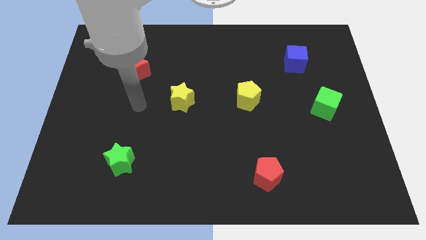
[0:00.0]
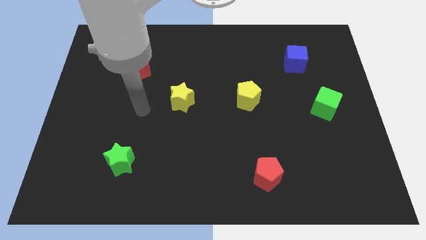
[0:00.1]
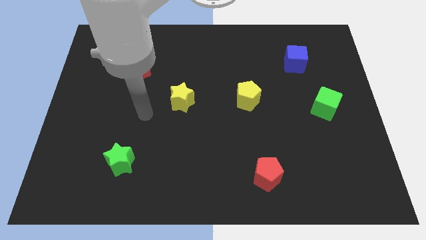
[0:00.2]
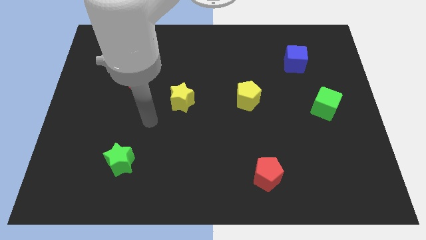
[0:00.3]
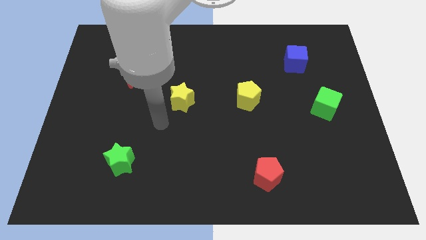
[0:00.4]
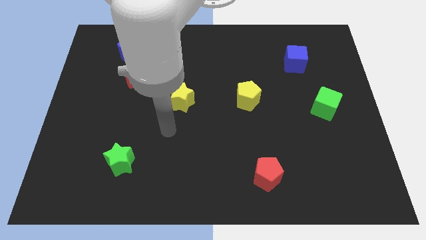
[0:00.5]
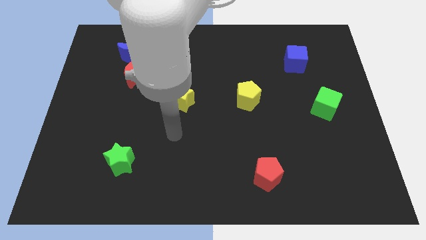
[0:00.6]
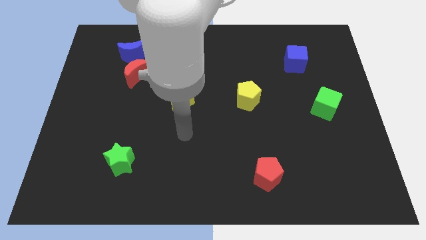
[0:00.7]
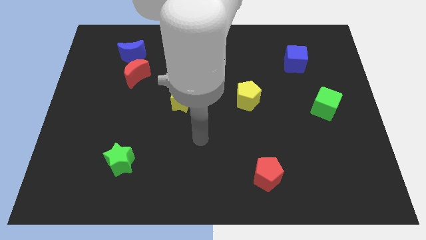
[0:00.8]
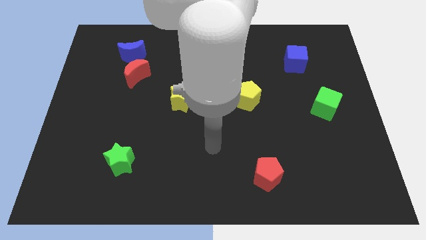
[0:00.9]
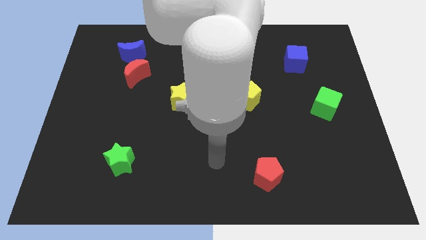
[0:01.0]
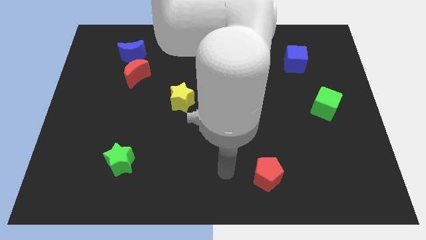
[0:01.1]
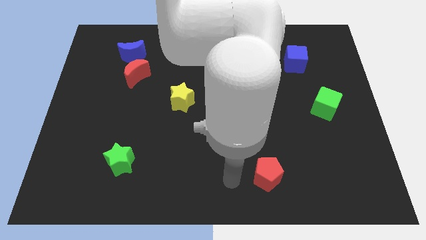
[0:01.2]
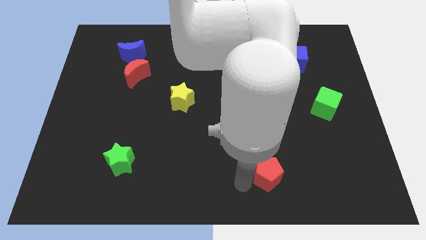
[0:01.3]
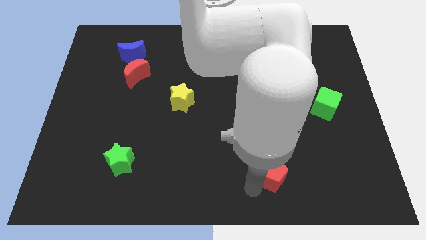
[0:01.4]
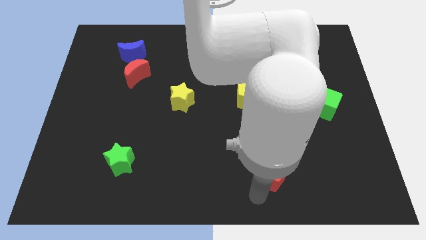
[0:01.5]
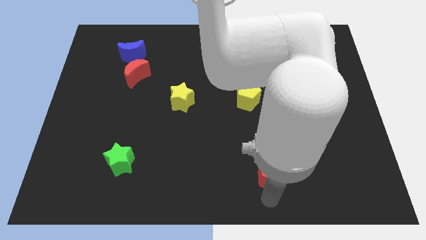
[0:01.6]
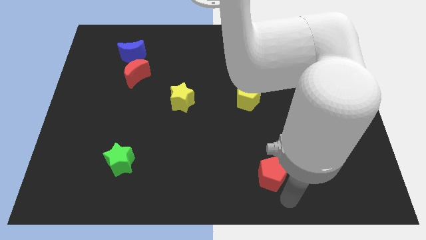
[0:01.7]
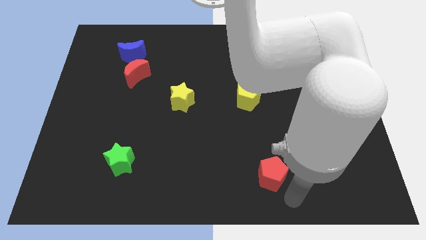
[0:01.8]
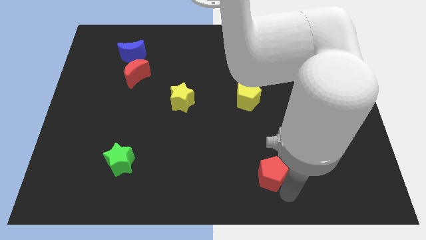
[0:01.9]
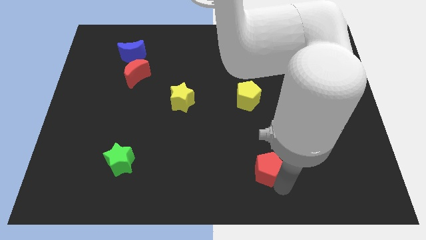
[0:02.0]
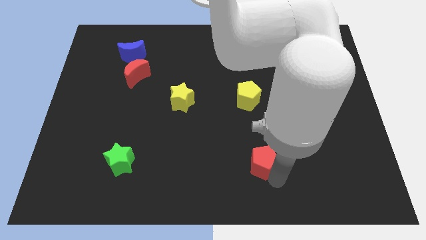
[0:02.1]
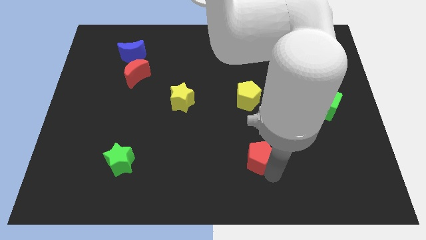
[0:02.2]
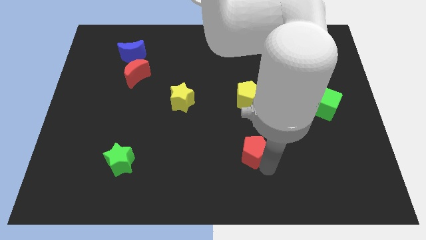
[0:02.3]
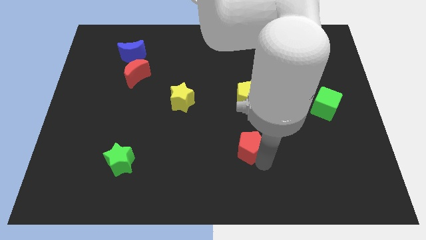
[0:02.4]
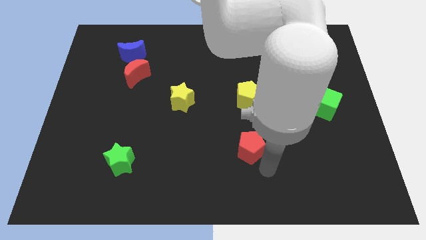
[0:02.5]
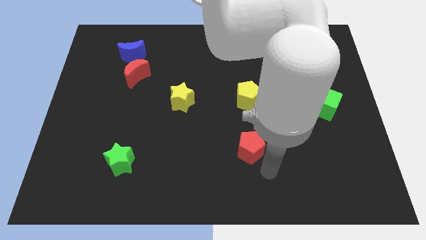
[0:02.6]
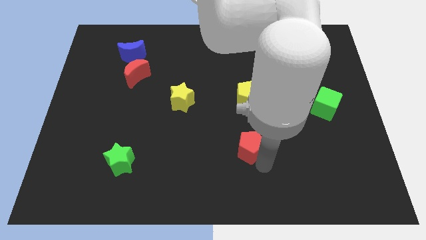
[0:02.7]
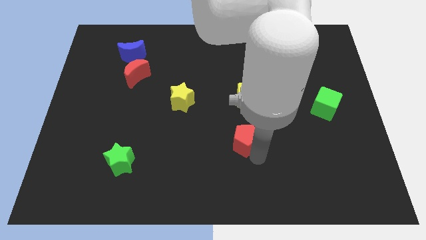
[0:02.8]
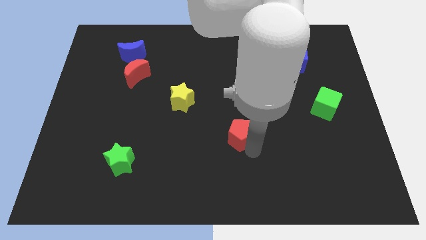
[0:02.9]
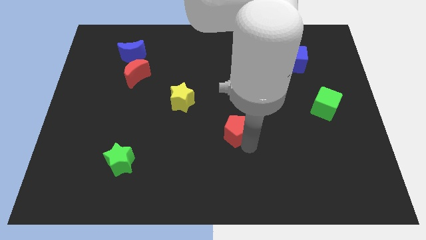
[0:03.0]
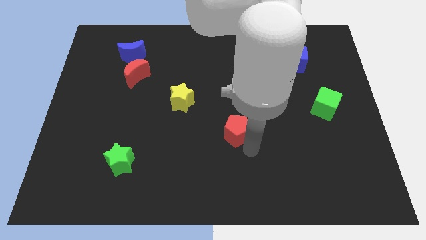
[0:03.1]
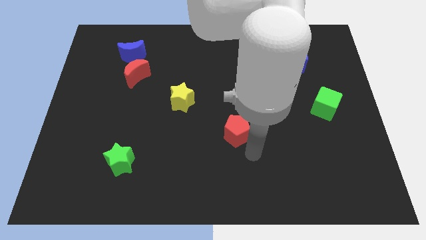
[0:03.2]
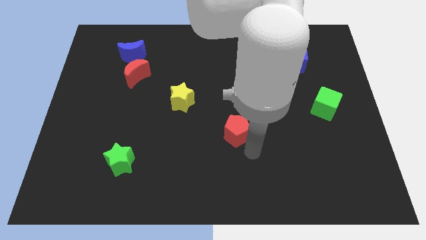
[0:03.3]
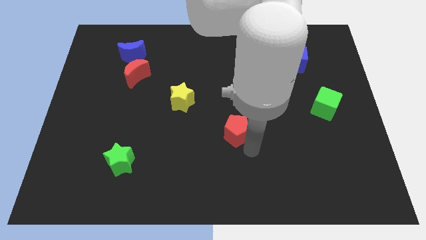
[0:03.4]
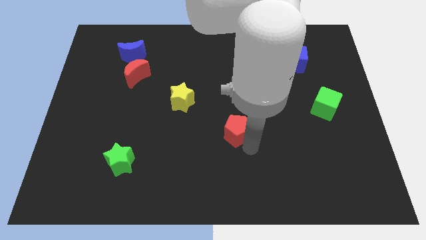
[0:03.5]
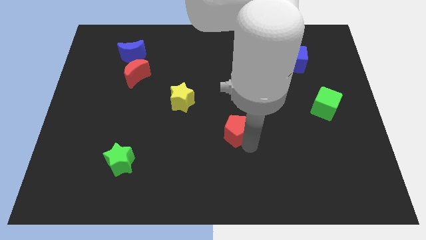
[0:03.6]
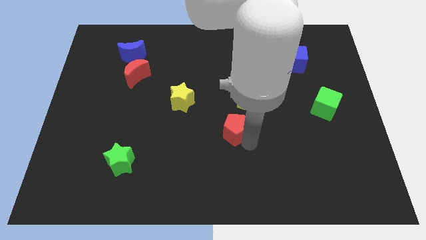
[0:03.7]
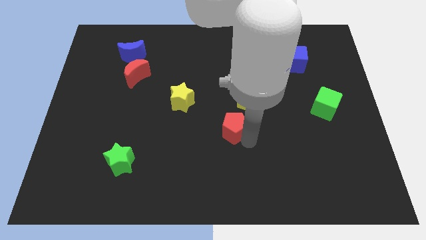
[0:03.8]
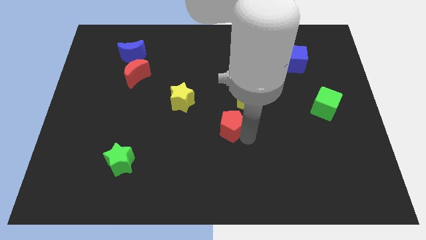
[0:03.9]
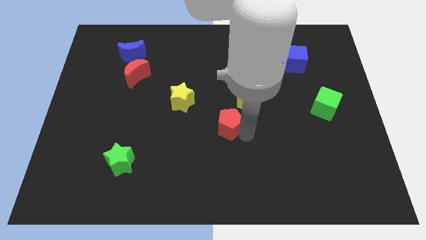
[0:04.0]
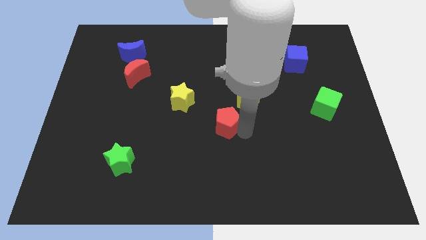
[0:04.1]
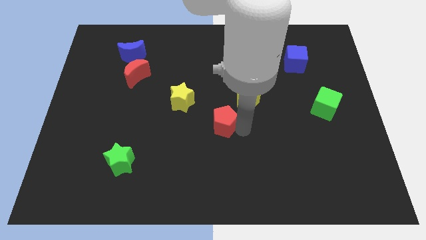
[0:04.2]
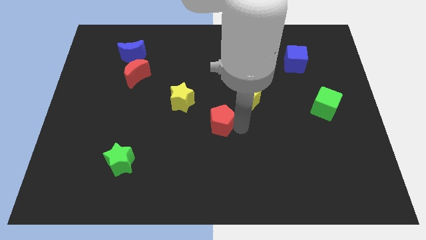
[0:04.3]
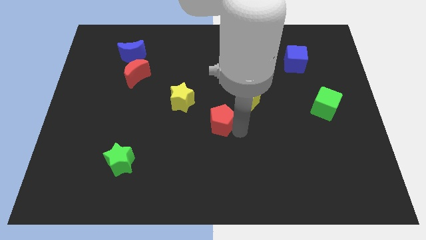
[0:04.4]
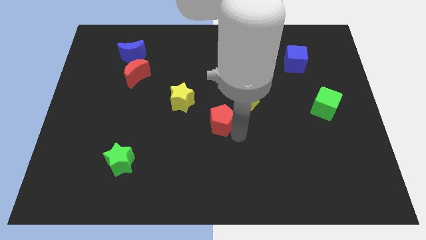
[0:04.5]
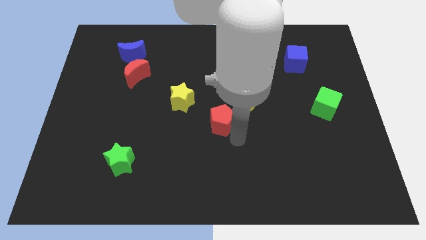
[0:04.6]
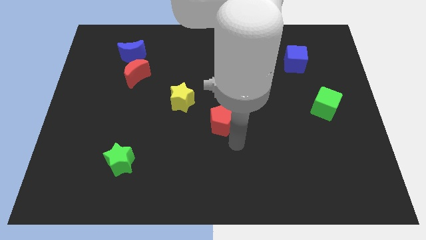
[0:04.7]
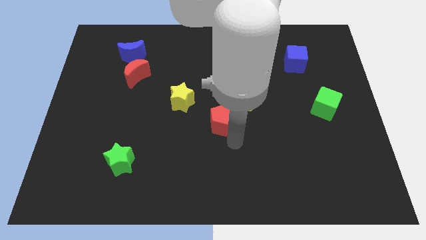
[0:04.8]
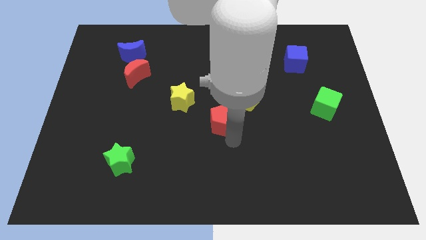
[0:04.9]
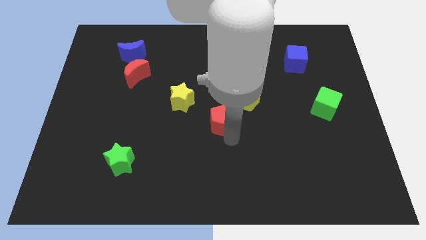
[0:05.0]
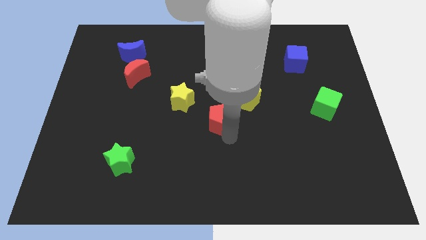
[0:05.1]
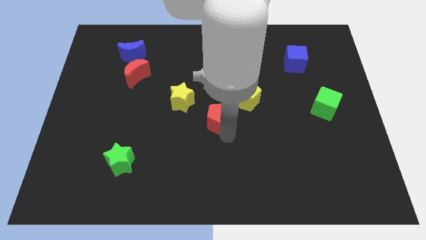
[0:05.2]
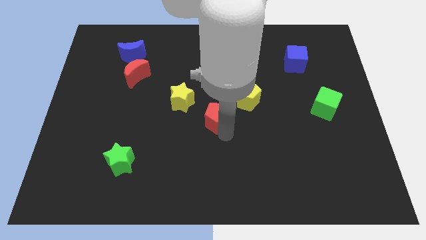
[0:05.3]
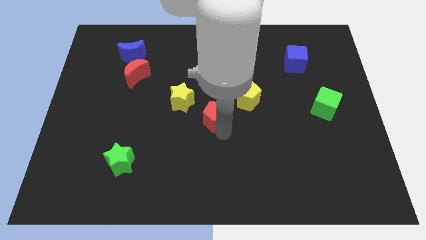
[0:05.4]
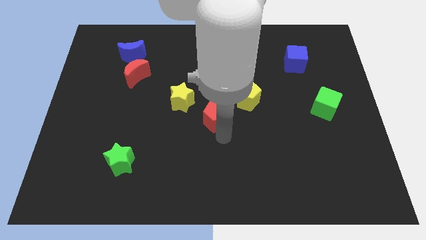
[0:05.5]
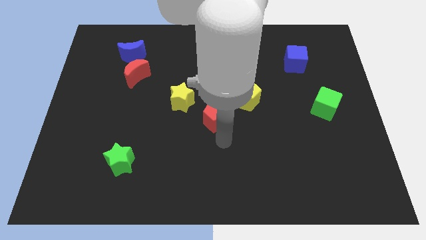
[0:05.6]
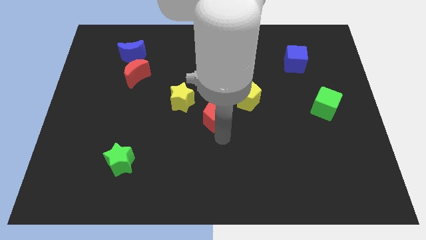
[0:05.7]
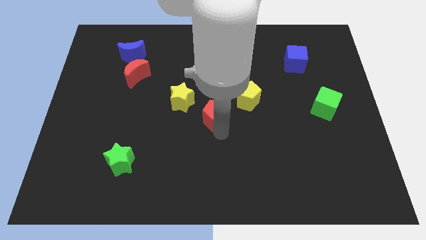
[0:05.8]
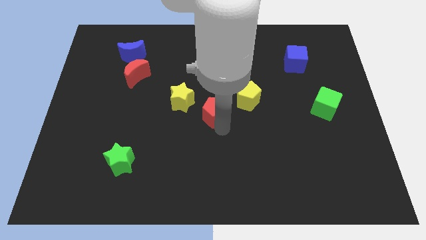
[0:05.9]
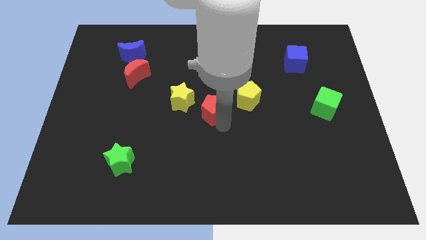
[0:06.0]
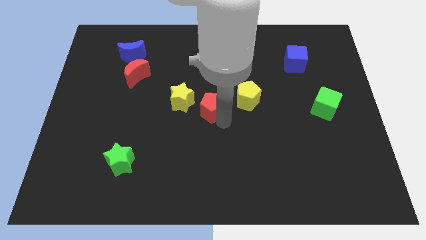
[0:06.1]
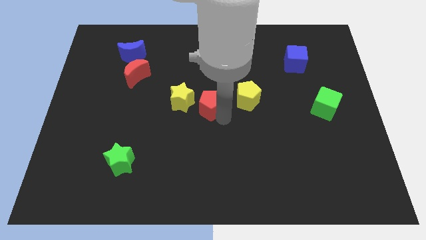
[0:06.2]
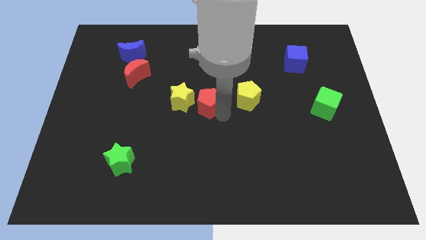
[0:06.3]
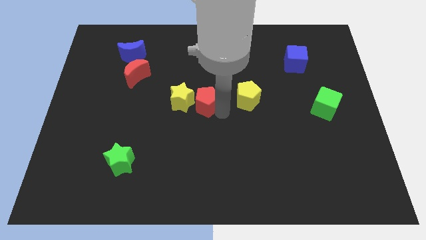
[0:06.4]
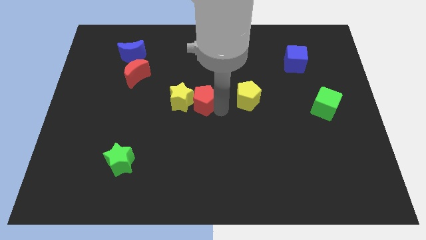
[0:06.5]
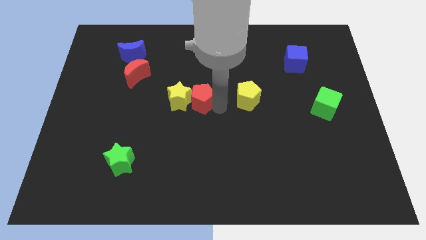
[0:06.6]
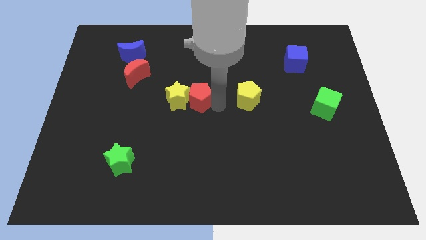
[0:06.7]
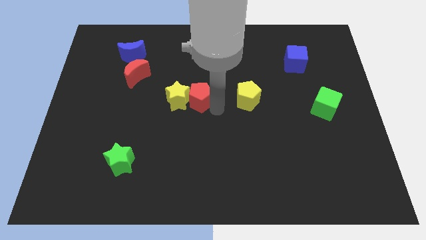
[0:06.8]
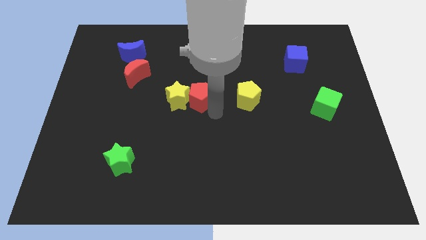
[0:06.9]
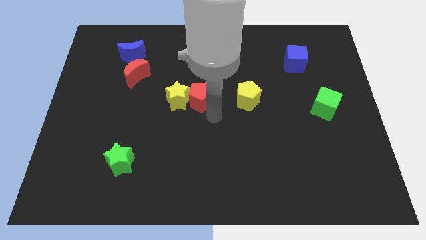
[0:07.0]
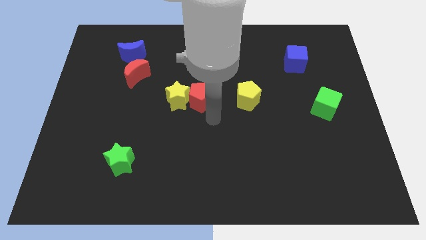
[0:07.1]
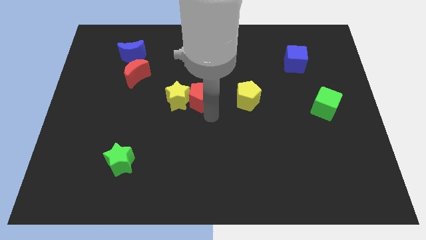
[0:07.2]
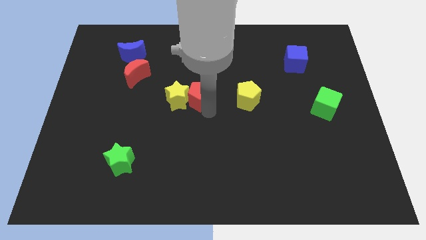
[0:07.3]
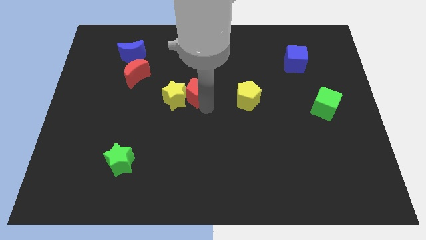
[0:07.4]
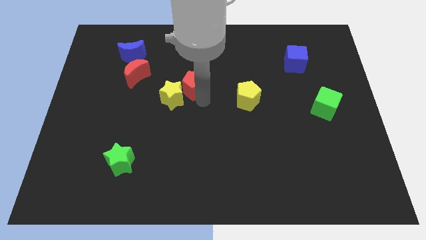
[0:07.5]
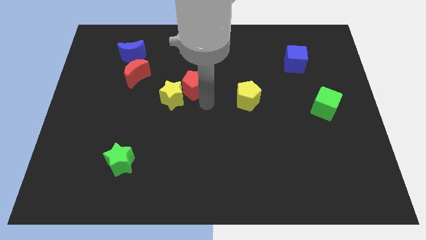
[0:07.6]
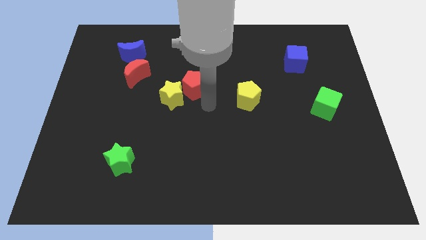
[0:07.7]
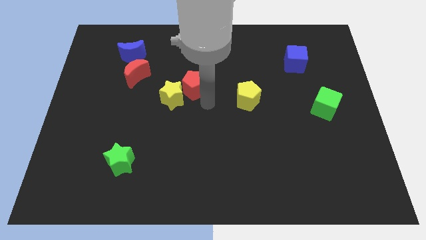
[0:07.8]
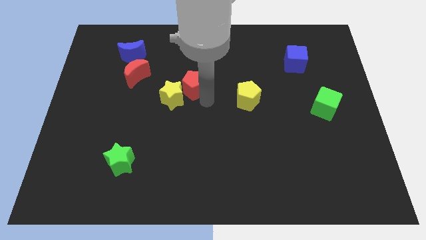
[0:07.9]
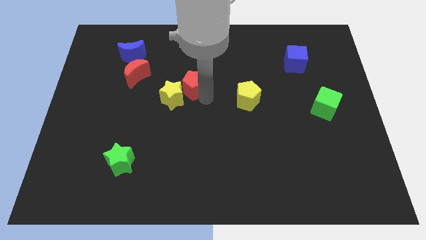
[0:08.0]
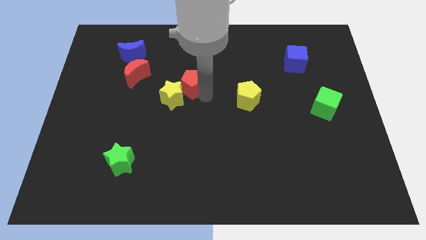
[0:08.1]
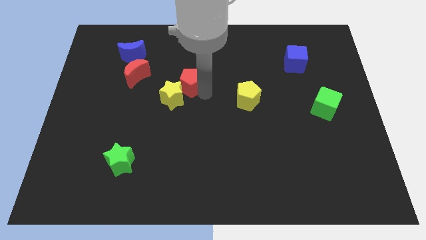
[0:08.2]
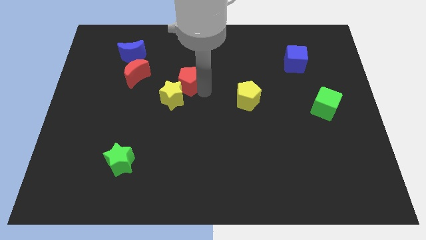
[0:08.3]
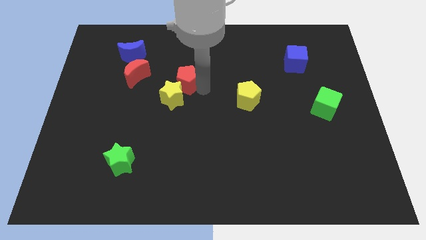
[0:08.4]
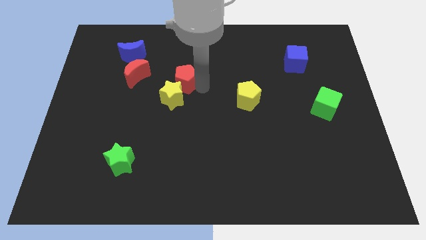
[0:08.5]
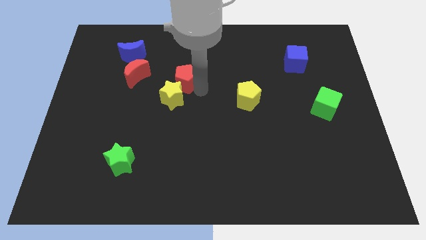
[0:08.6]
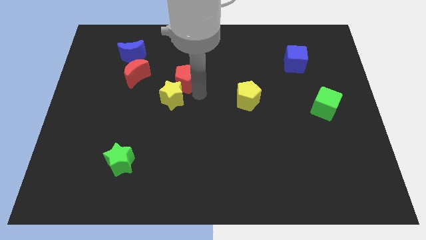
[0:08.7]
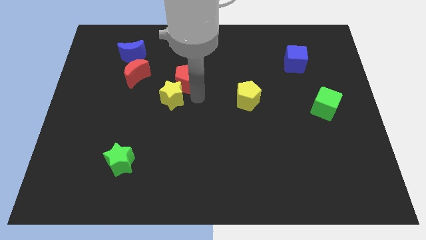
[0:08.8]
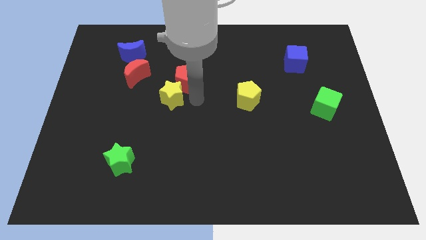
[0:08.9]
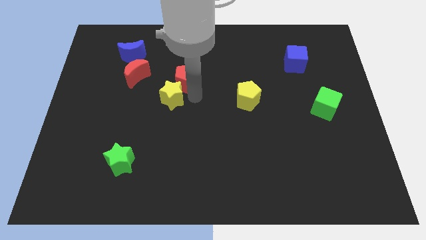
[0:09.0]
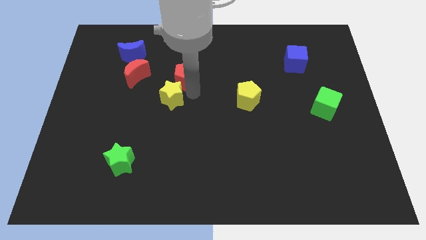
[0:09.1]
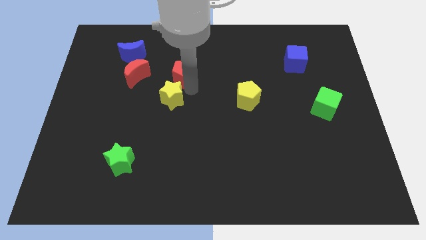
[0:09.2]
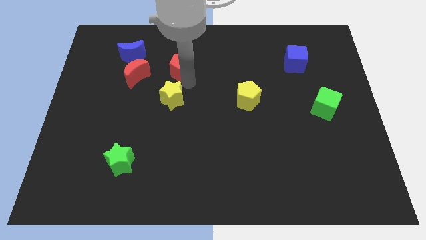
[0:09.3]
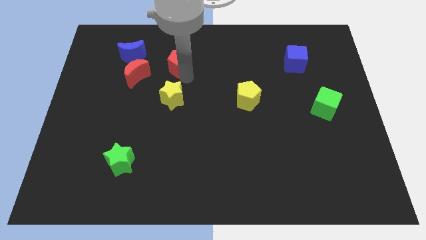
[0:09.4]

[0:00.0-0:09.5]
move the red pentagon just right of the blue moon
